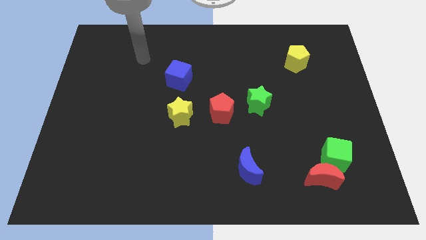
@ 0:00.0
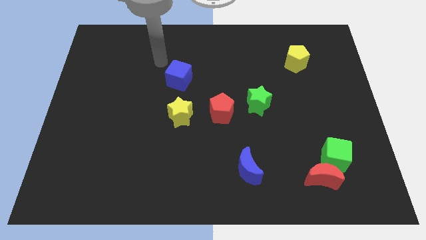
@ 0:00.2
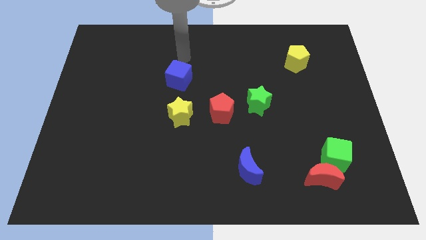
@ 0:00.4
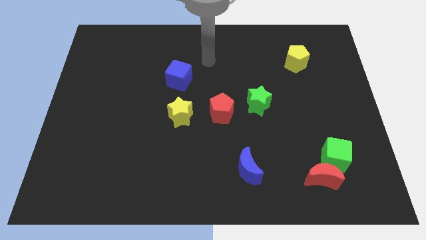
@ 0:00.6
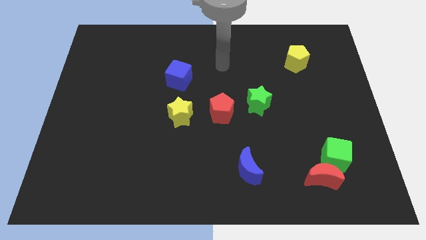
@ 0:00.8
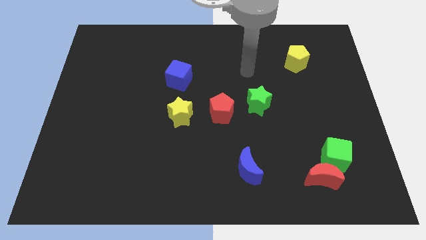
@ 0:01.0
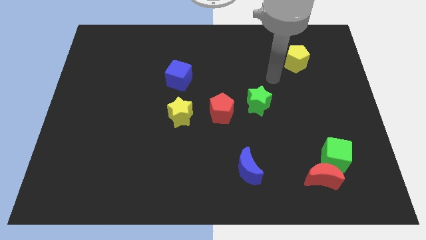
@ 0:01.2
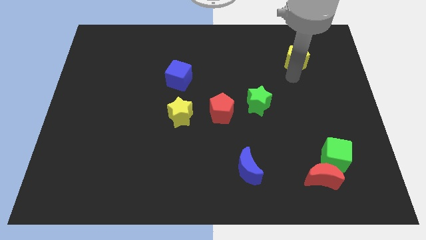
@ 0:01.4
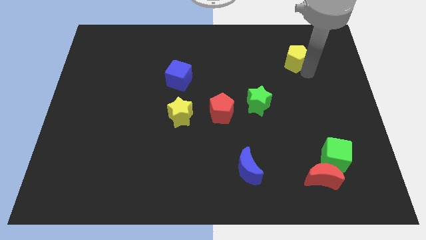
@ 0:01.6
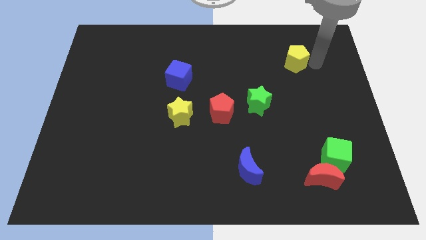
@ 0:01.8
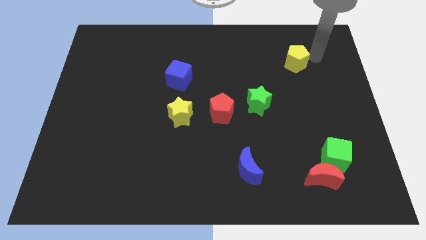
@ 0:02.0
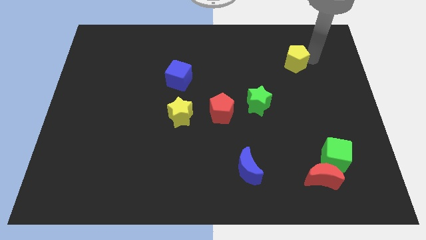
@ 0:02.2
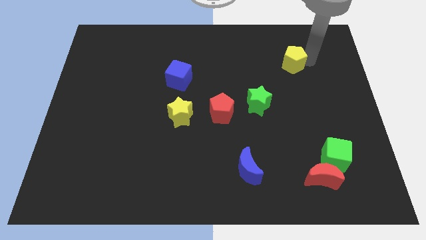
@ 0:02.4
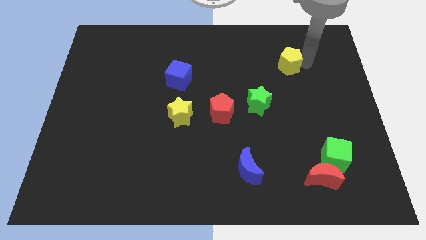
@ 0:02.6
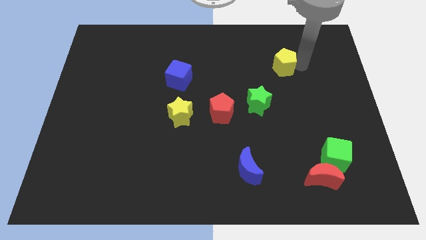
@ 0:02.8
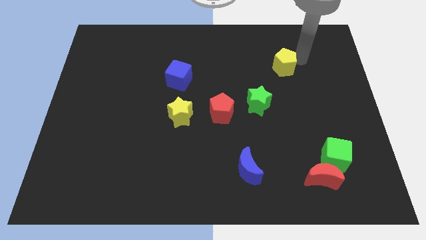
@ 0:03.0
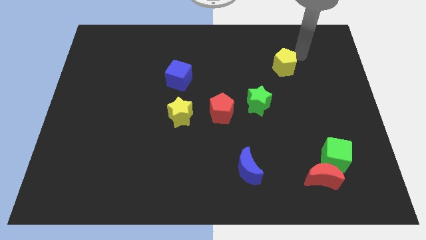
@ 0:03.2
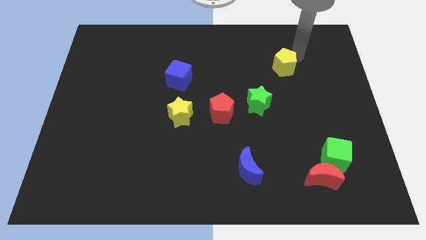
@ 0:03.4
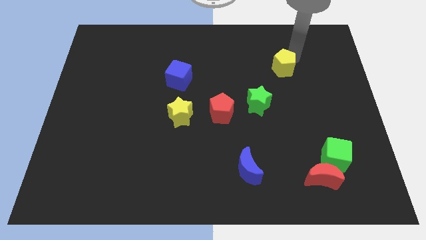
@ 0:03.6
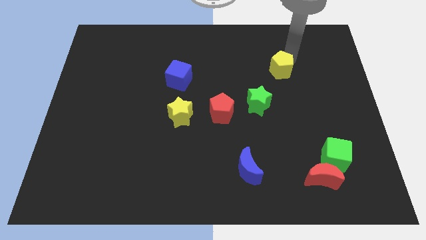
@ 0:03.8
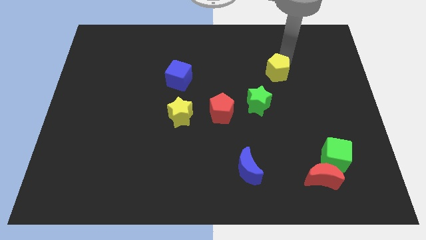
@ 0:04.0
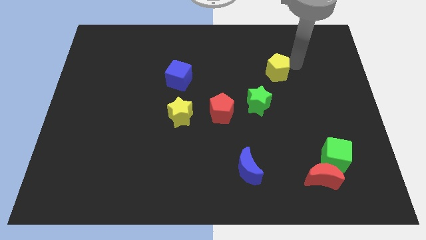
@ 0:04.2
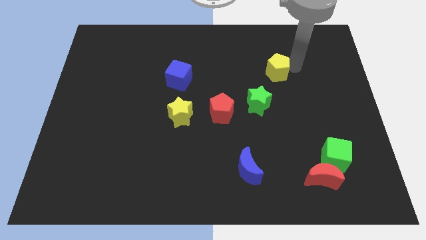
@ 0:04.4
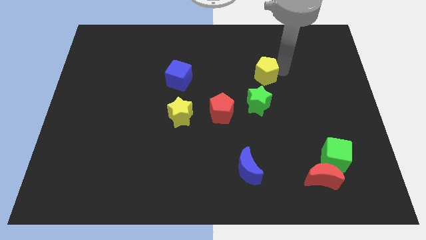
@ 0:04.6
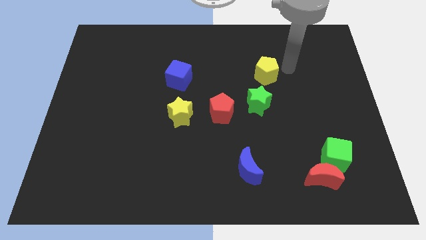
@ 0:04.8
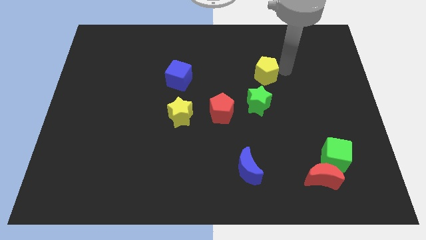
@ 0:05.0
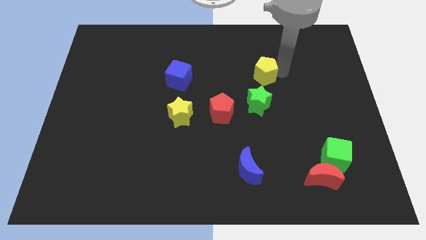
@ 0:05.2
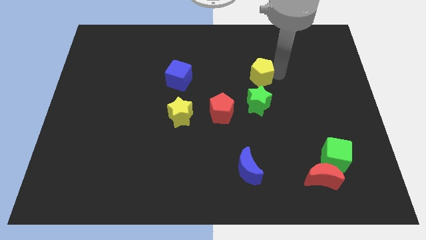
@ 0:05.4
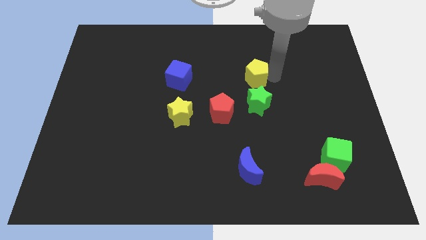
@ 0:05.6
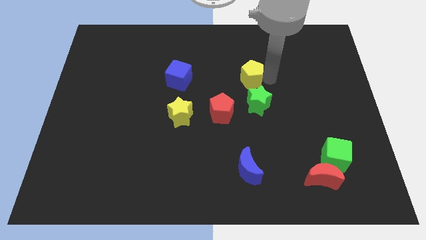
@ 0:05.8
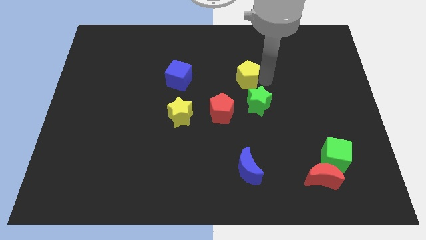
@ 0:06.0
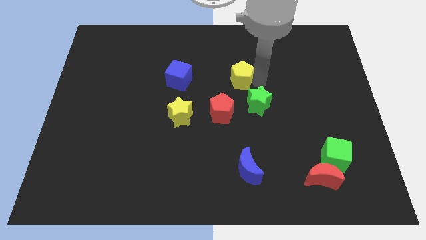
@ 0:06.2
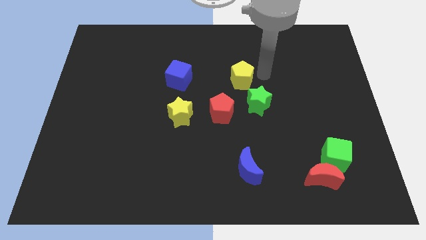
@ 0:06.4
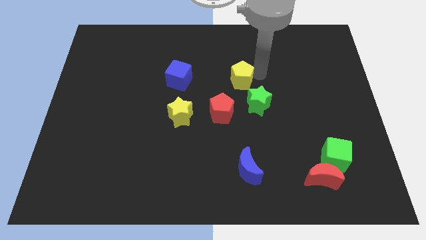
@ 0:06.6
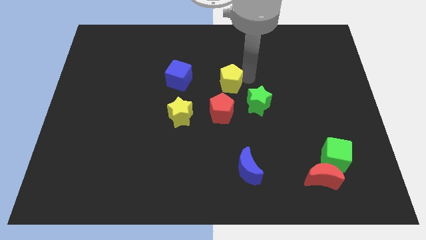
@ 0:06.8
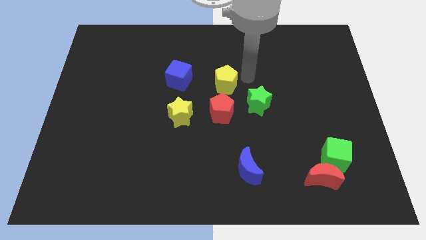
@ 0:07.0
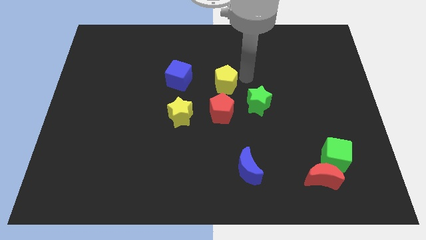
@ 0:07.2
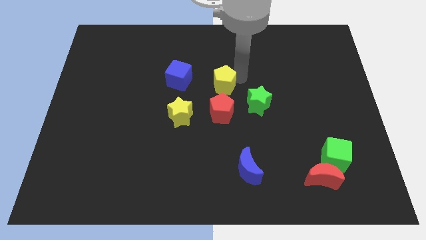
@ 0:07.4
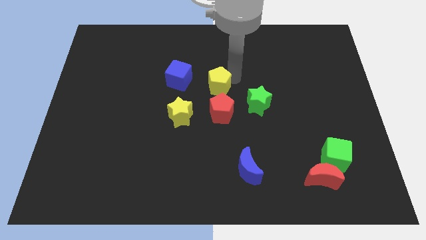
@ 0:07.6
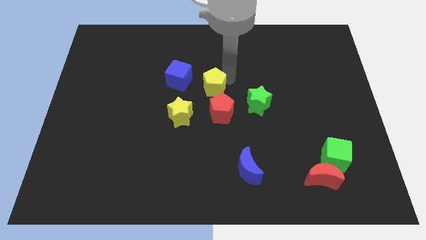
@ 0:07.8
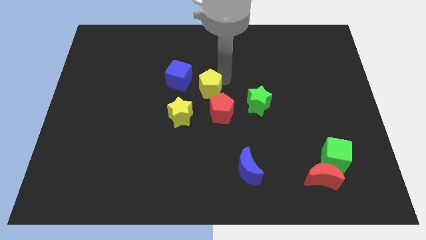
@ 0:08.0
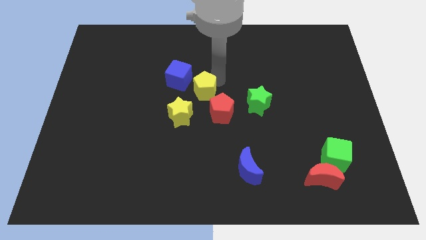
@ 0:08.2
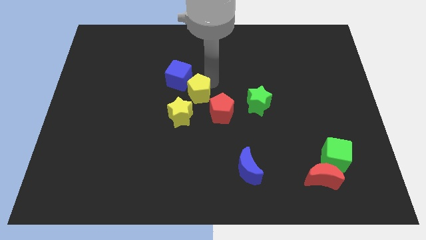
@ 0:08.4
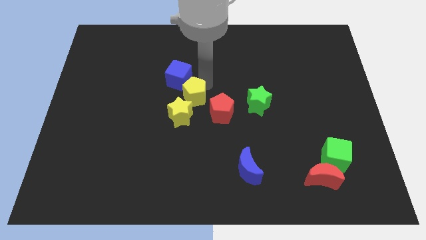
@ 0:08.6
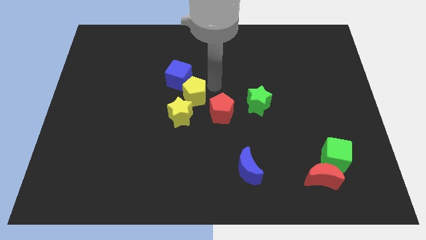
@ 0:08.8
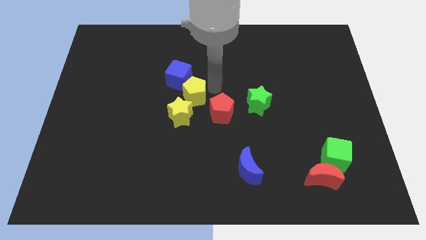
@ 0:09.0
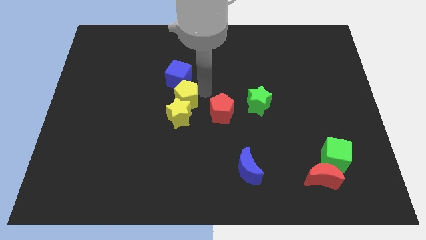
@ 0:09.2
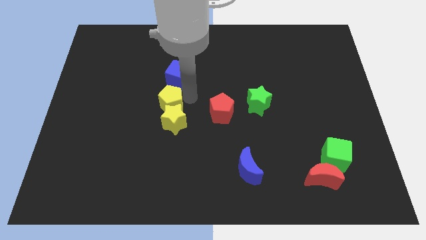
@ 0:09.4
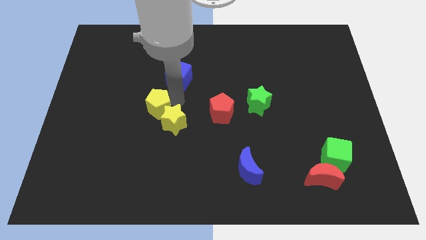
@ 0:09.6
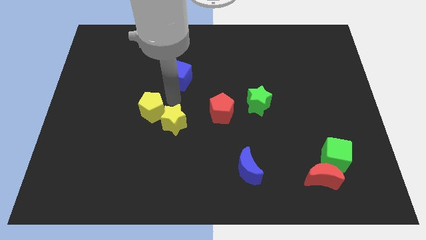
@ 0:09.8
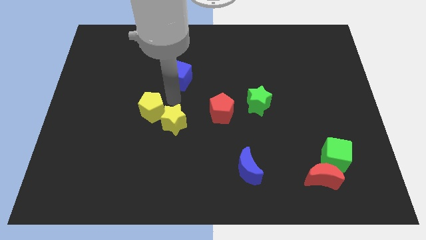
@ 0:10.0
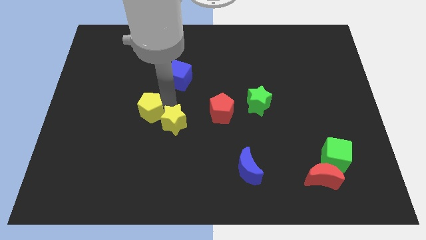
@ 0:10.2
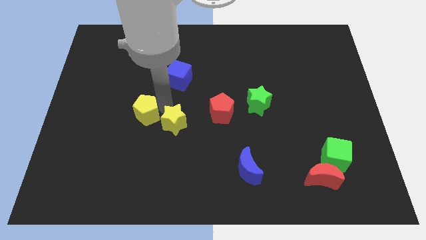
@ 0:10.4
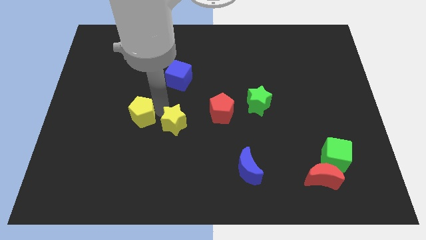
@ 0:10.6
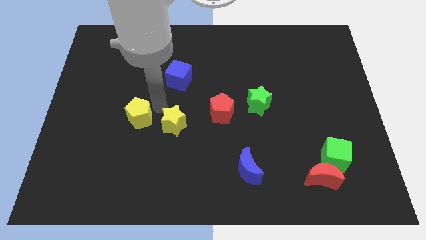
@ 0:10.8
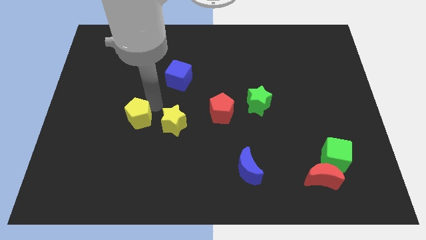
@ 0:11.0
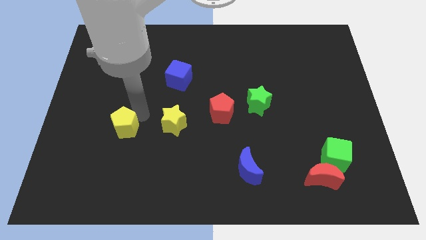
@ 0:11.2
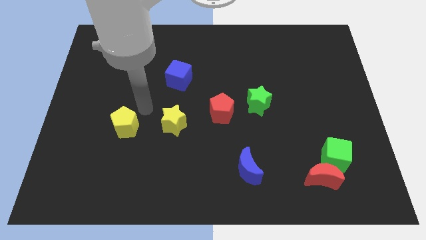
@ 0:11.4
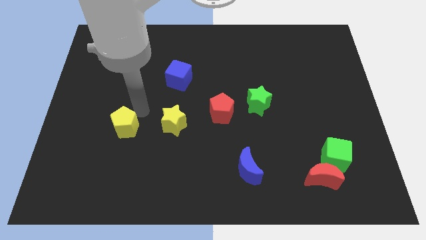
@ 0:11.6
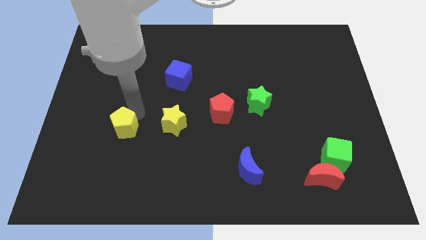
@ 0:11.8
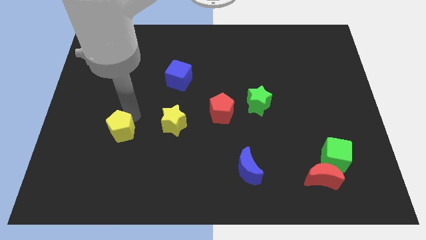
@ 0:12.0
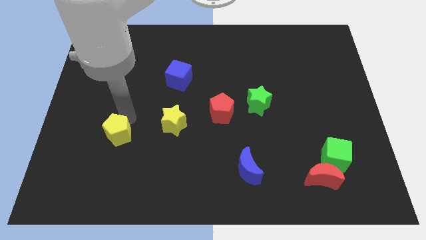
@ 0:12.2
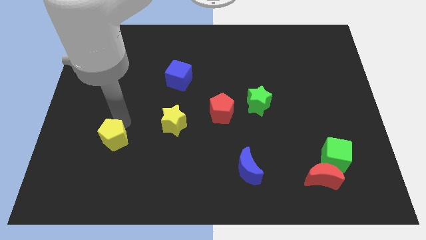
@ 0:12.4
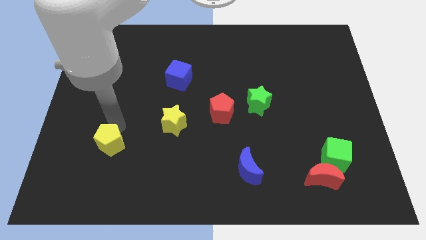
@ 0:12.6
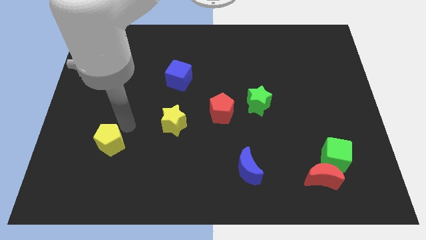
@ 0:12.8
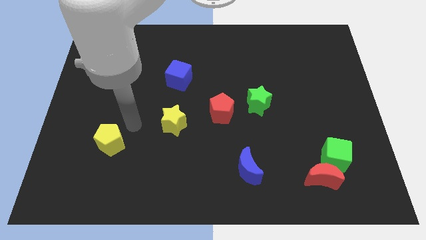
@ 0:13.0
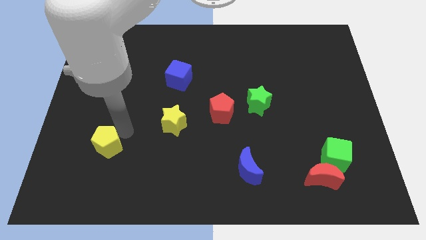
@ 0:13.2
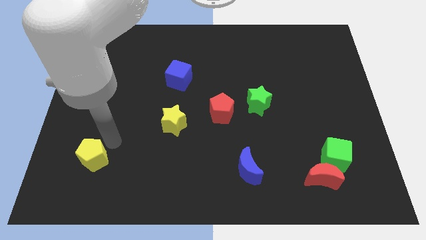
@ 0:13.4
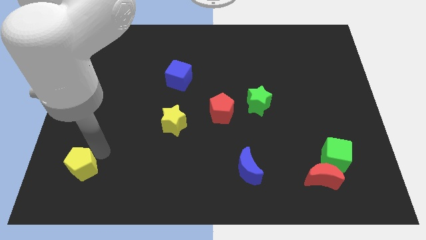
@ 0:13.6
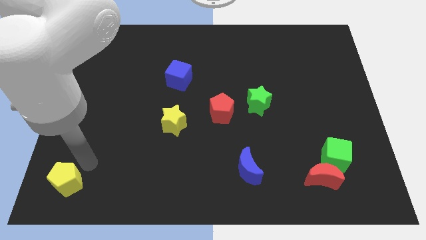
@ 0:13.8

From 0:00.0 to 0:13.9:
slide the yellow pentagon to the bottom left corner
